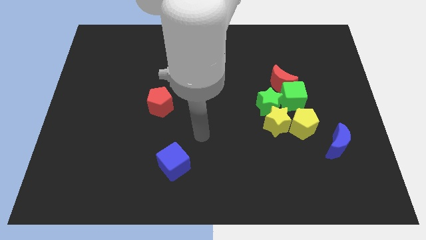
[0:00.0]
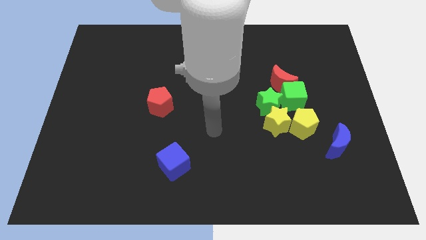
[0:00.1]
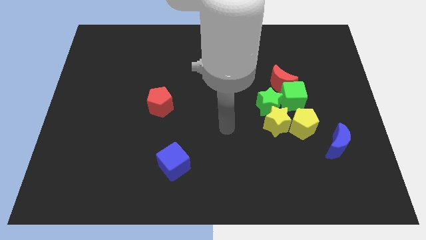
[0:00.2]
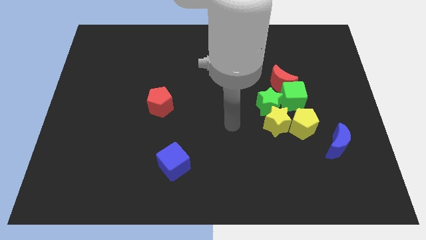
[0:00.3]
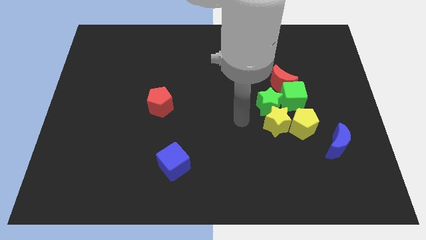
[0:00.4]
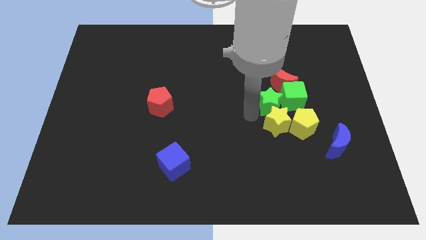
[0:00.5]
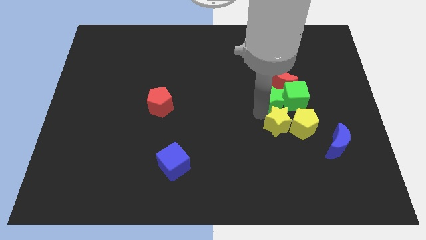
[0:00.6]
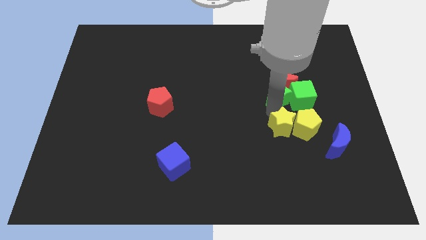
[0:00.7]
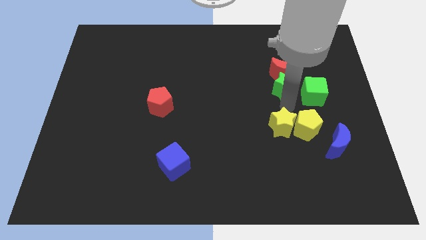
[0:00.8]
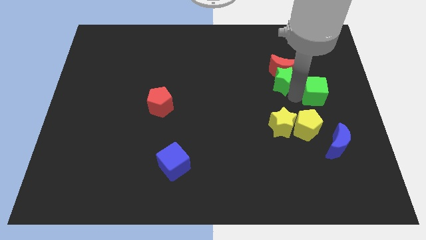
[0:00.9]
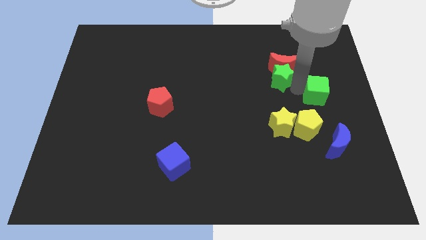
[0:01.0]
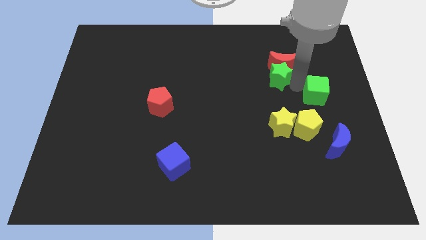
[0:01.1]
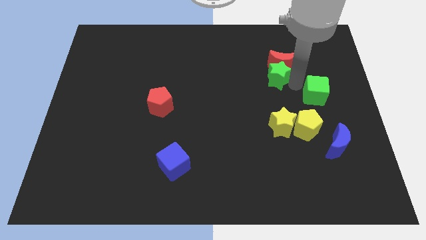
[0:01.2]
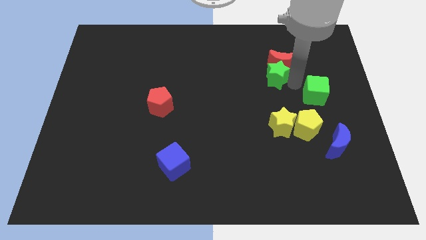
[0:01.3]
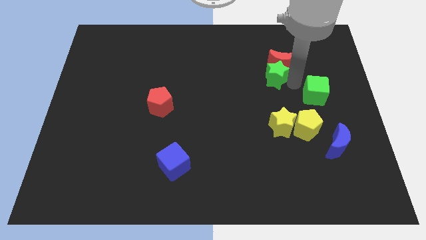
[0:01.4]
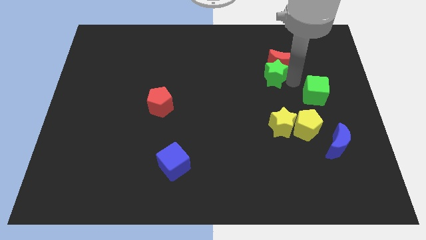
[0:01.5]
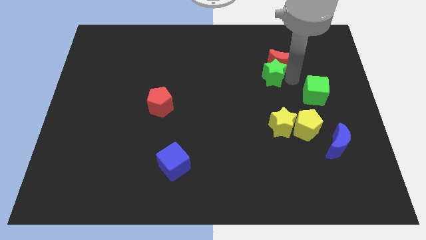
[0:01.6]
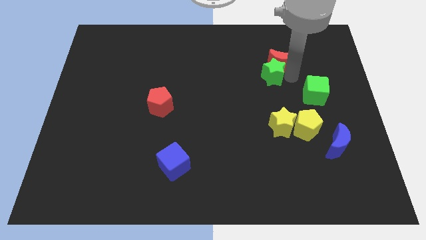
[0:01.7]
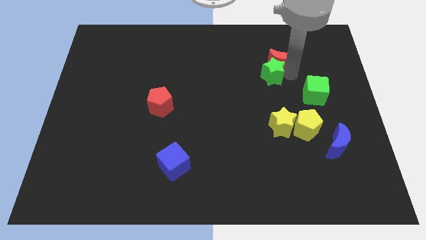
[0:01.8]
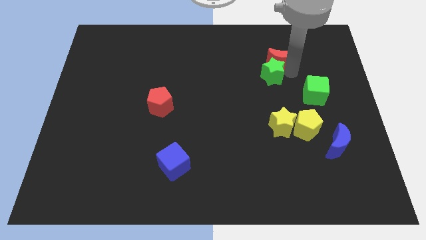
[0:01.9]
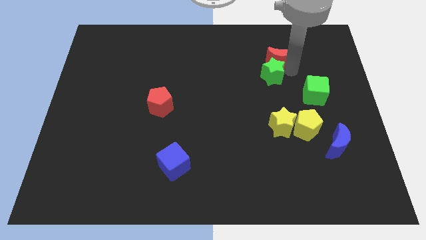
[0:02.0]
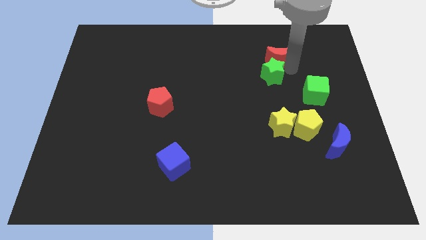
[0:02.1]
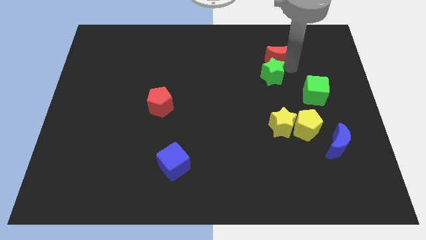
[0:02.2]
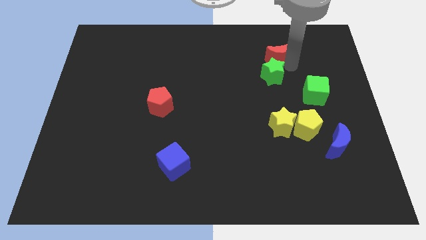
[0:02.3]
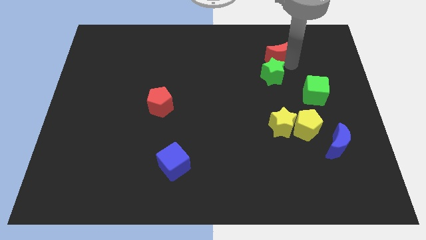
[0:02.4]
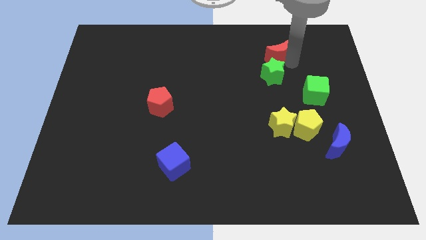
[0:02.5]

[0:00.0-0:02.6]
pull the red moon apart from the green cube and green star

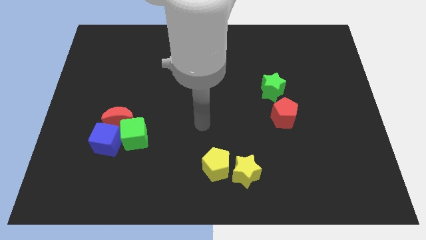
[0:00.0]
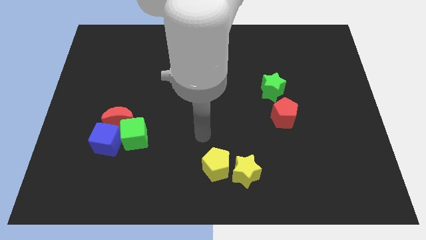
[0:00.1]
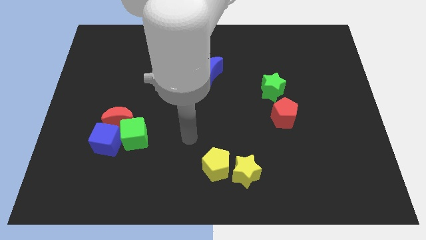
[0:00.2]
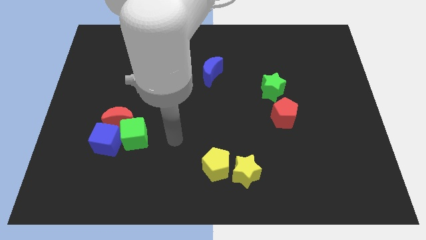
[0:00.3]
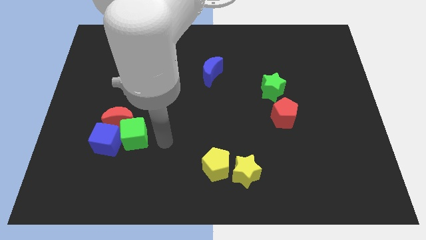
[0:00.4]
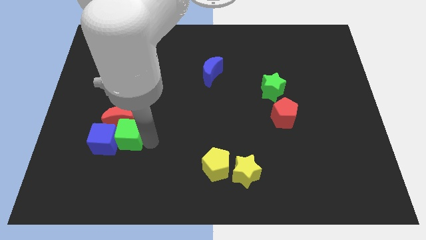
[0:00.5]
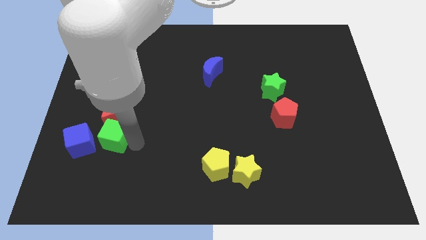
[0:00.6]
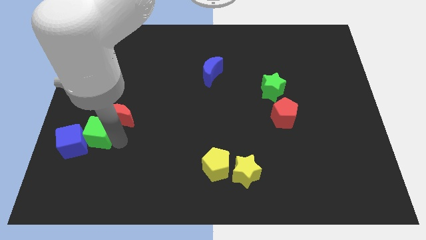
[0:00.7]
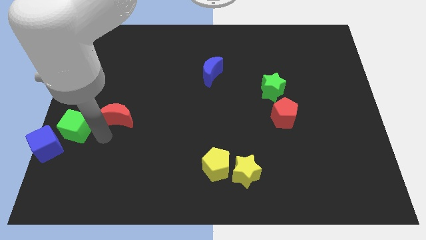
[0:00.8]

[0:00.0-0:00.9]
pull the red moon apart from the green cube and blue cube

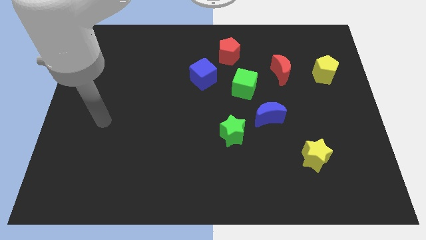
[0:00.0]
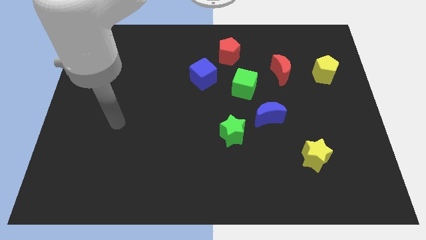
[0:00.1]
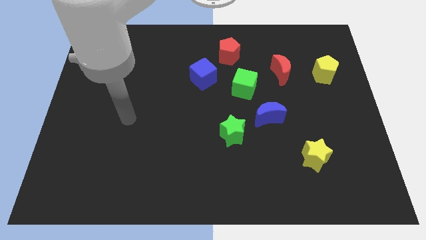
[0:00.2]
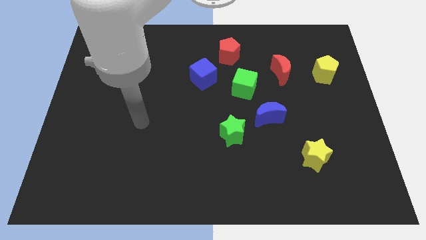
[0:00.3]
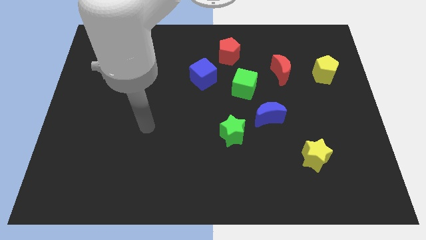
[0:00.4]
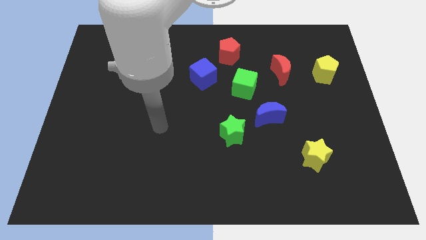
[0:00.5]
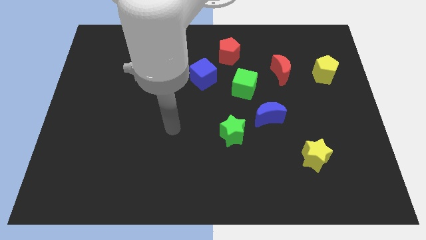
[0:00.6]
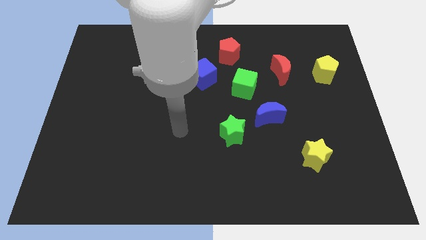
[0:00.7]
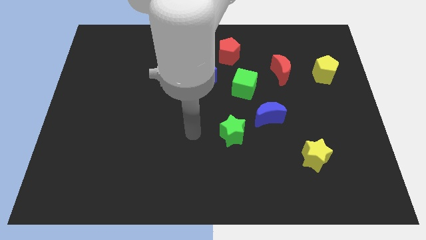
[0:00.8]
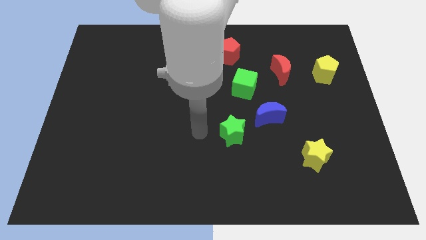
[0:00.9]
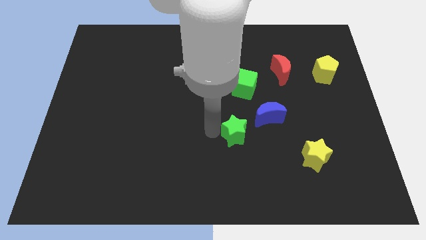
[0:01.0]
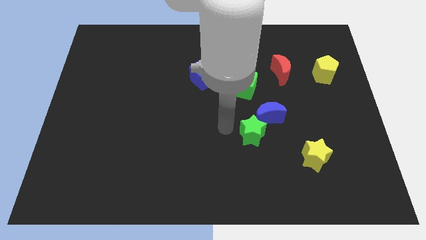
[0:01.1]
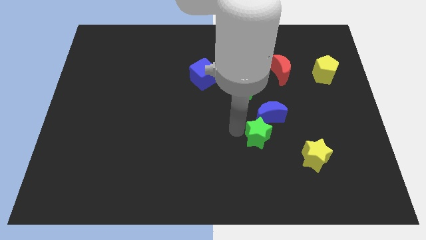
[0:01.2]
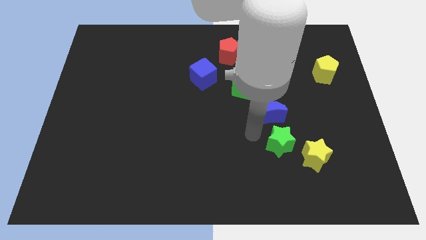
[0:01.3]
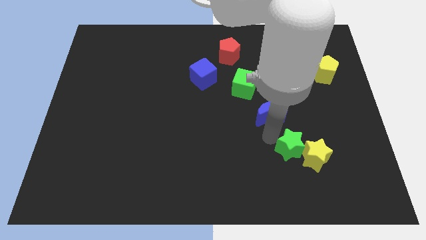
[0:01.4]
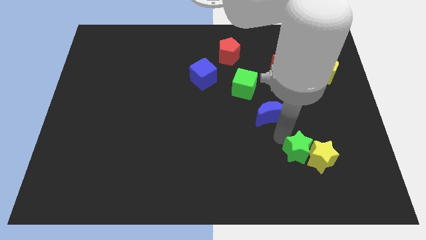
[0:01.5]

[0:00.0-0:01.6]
separate the blue moon from the green star

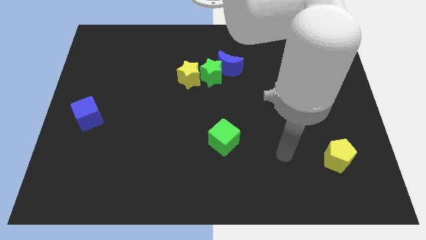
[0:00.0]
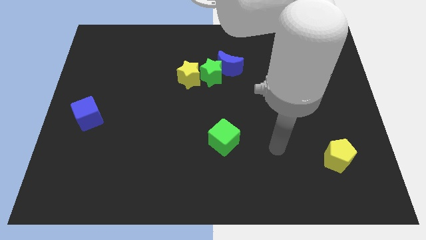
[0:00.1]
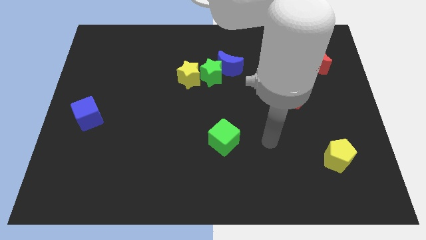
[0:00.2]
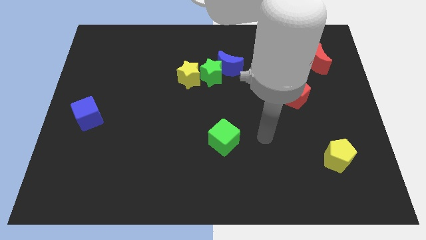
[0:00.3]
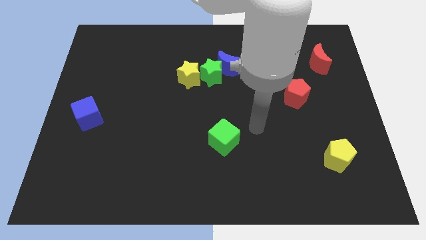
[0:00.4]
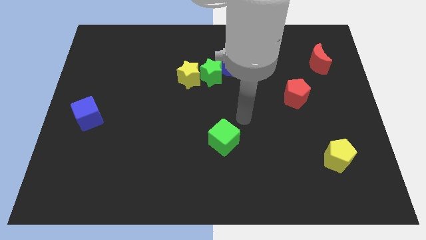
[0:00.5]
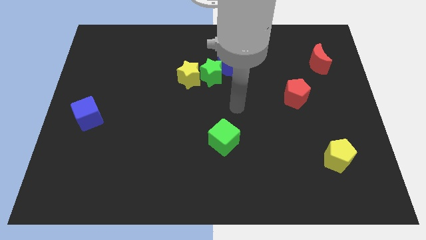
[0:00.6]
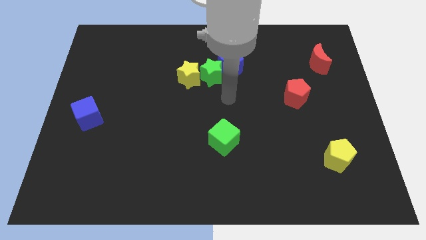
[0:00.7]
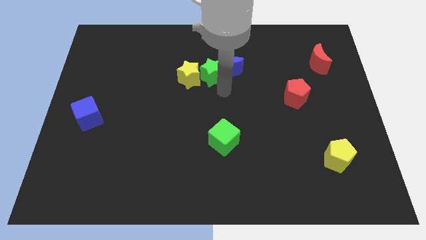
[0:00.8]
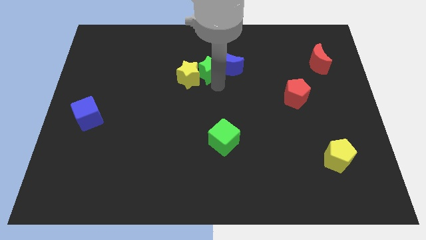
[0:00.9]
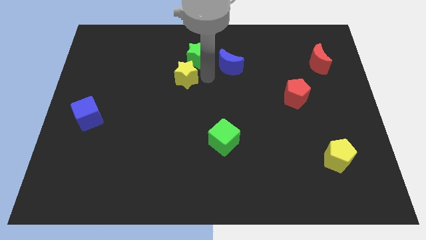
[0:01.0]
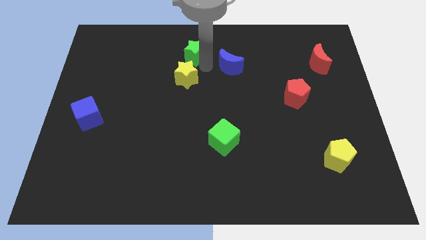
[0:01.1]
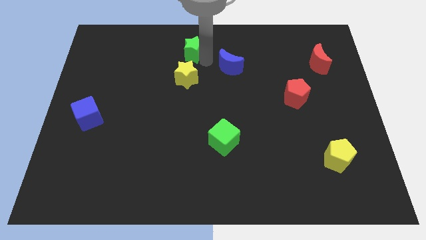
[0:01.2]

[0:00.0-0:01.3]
move the blue moon away from the green star

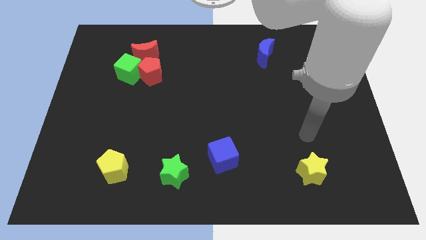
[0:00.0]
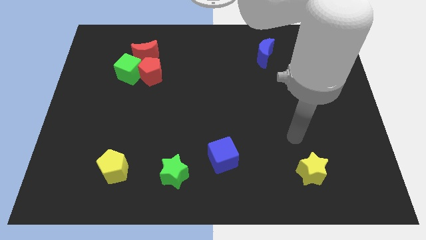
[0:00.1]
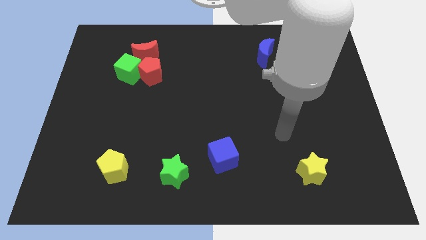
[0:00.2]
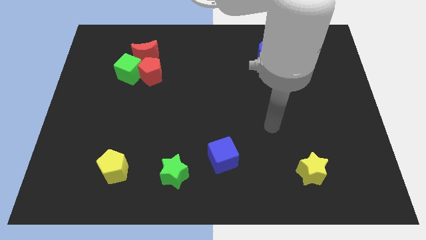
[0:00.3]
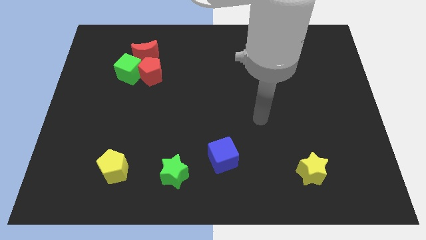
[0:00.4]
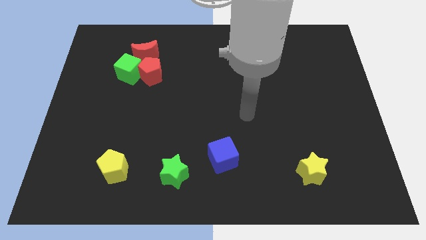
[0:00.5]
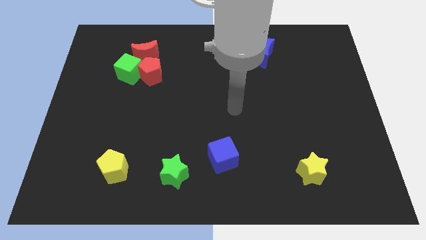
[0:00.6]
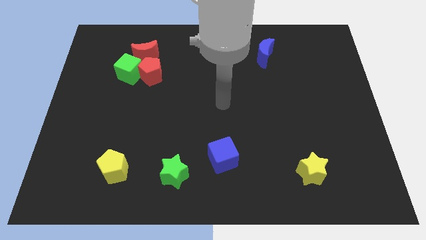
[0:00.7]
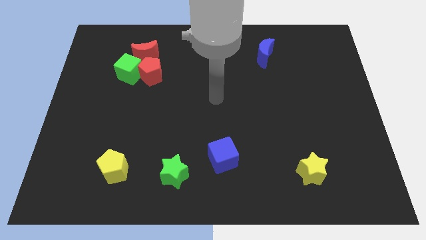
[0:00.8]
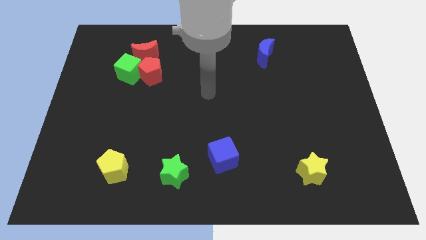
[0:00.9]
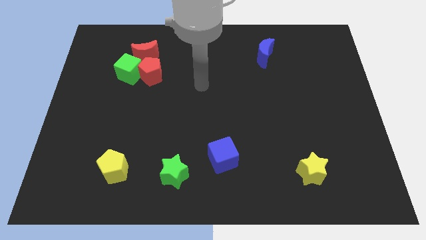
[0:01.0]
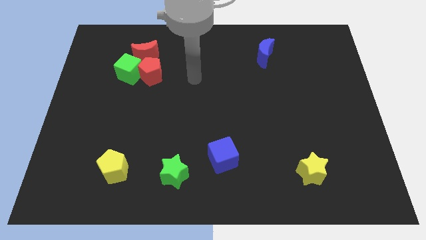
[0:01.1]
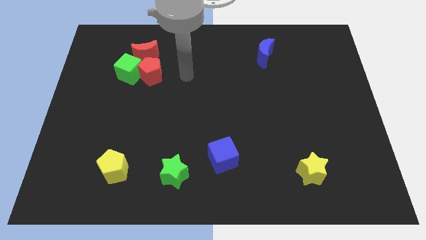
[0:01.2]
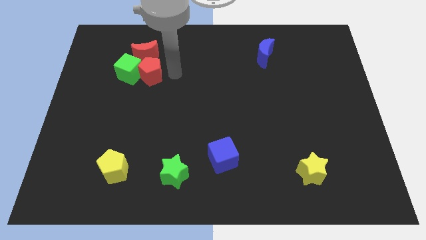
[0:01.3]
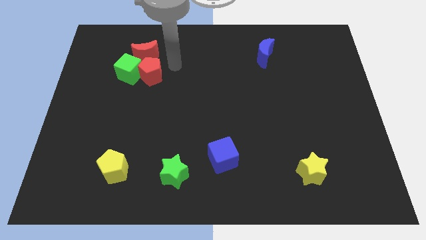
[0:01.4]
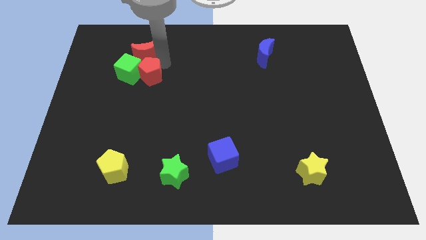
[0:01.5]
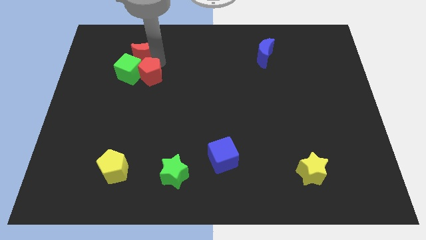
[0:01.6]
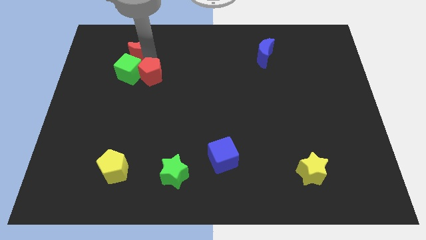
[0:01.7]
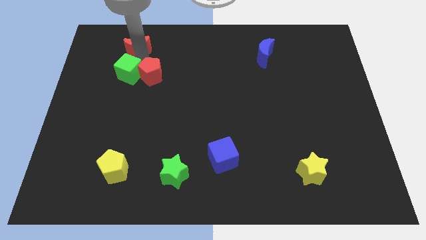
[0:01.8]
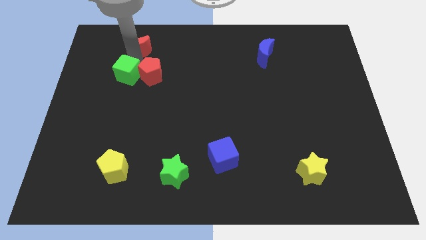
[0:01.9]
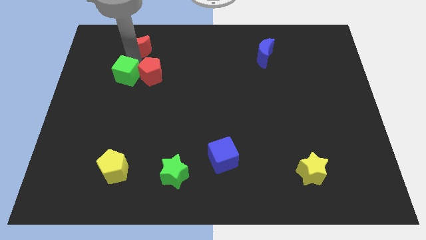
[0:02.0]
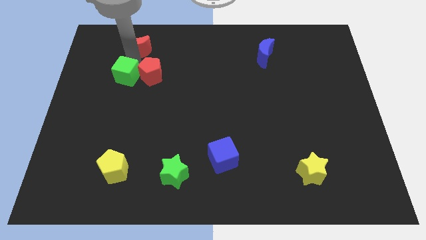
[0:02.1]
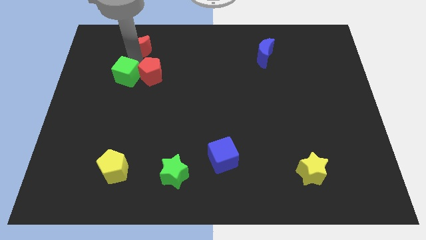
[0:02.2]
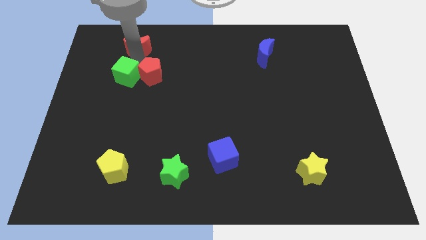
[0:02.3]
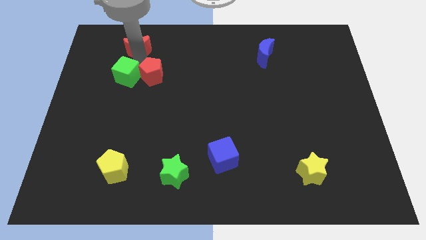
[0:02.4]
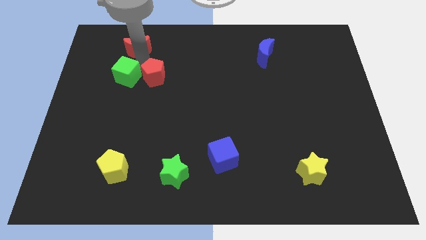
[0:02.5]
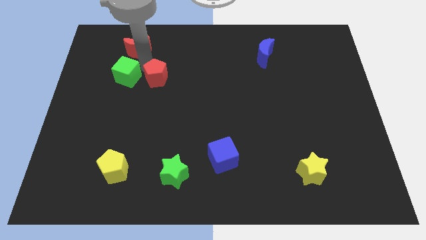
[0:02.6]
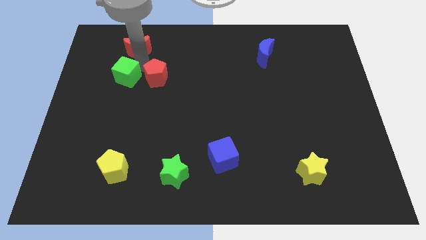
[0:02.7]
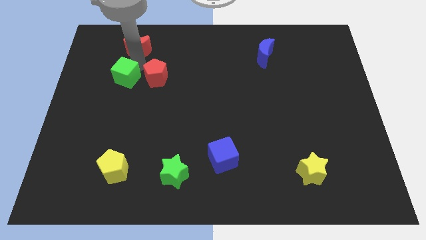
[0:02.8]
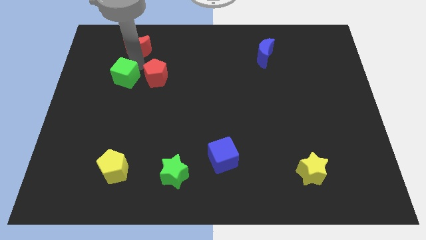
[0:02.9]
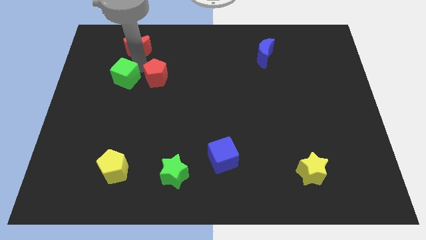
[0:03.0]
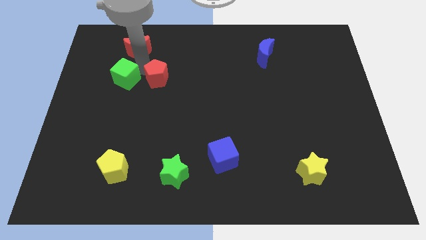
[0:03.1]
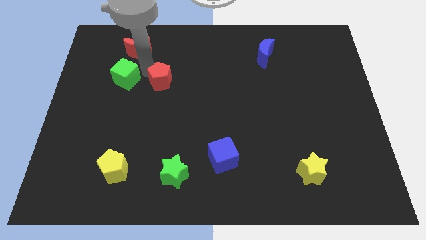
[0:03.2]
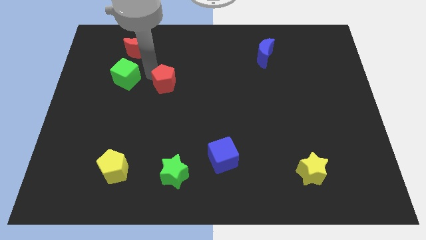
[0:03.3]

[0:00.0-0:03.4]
pull the red pentagon apart from the green cube and red moon
